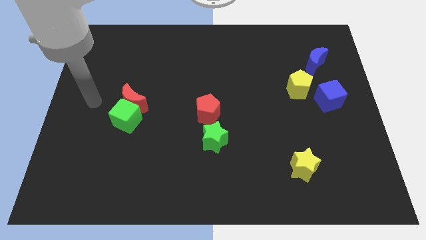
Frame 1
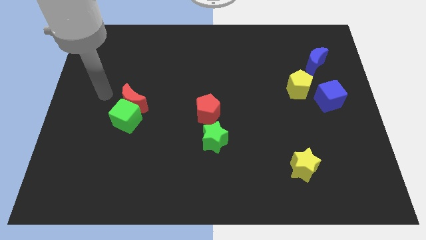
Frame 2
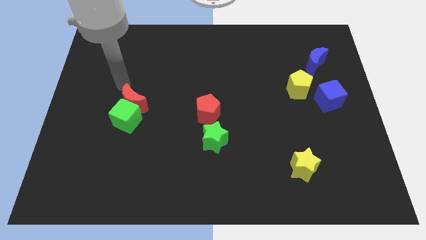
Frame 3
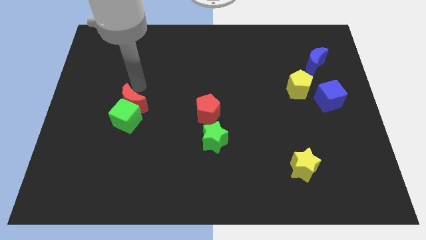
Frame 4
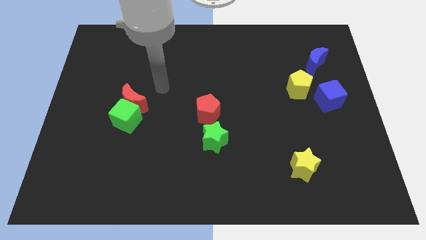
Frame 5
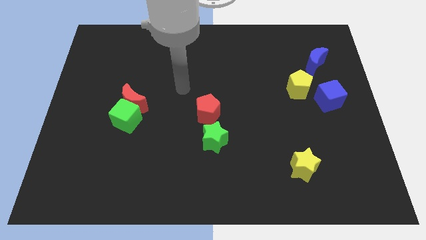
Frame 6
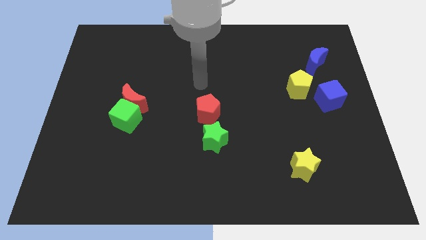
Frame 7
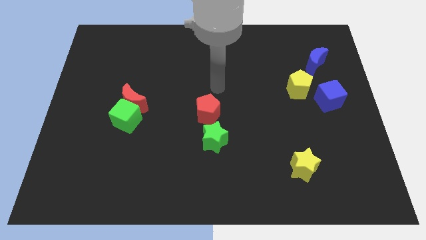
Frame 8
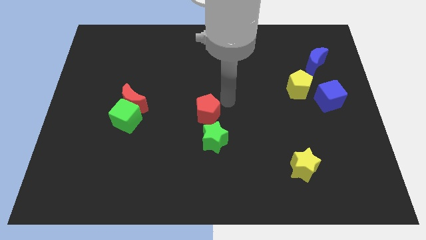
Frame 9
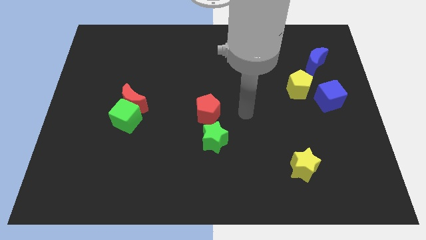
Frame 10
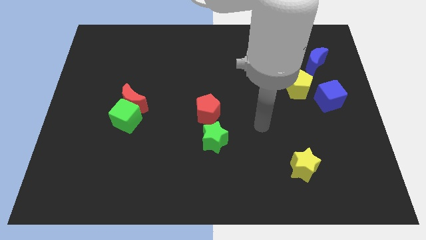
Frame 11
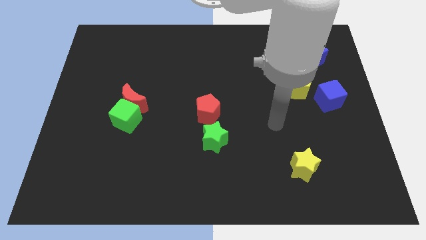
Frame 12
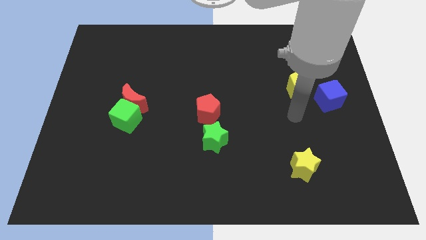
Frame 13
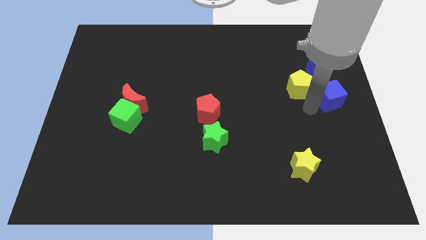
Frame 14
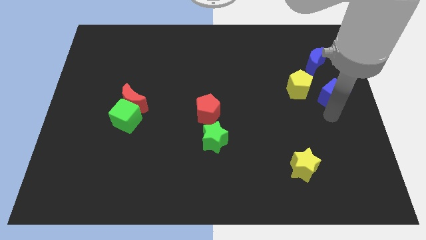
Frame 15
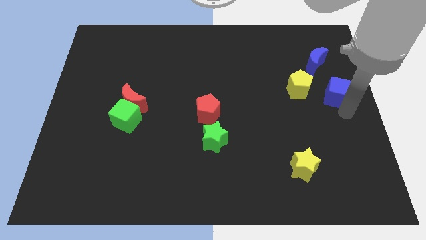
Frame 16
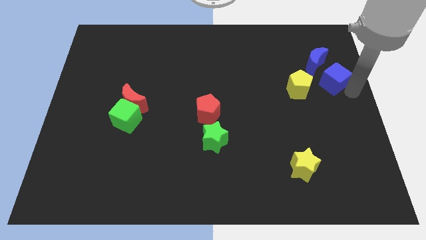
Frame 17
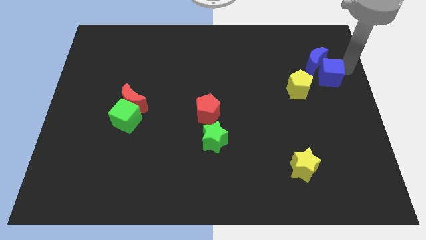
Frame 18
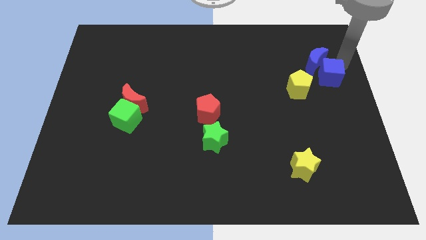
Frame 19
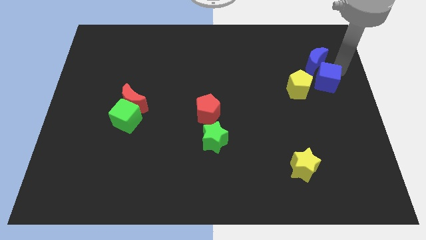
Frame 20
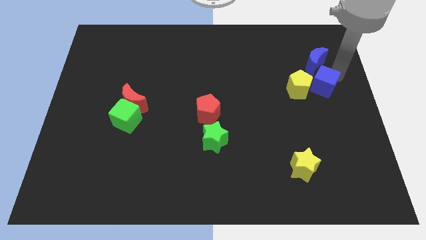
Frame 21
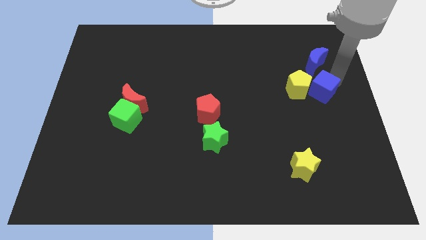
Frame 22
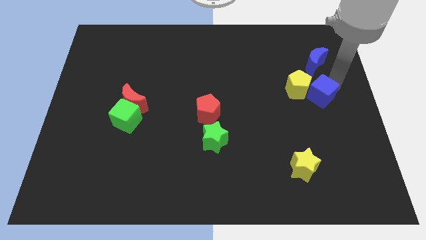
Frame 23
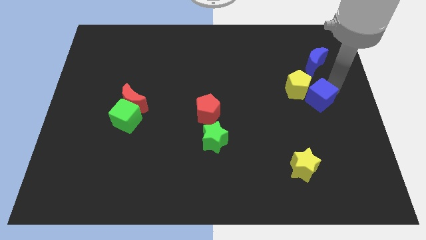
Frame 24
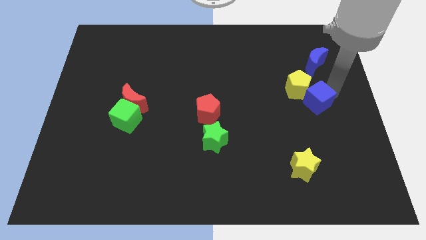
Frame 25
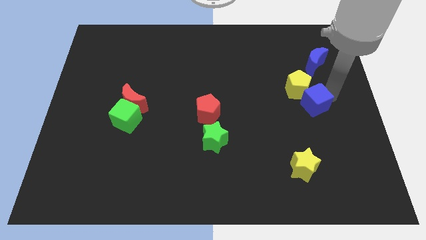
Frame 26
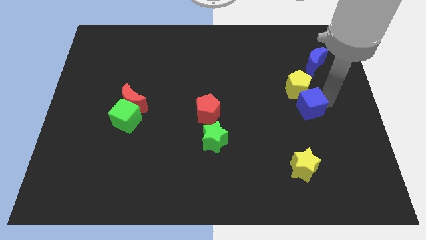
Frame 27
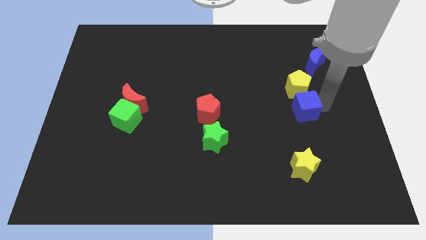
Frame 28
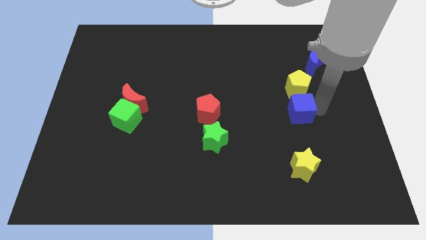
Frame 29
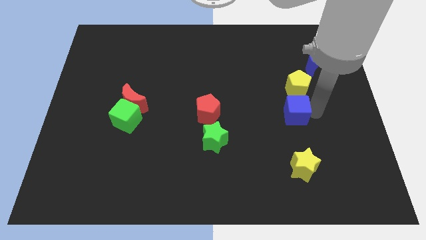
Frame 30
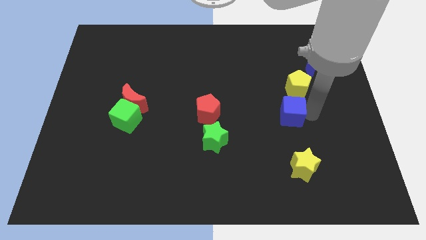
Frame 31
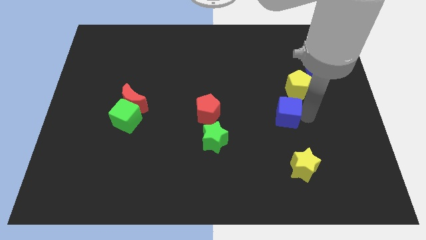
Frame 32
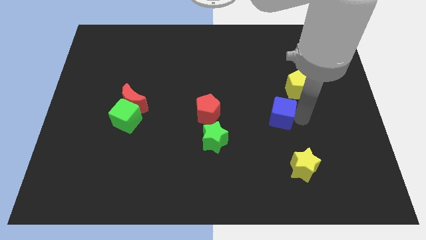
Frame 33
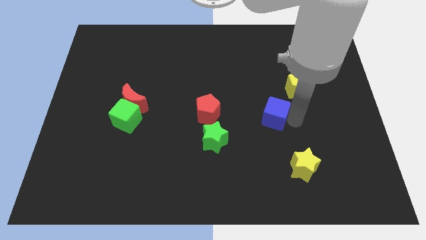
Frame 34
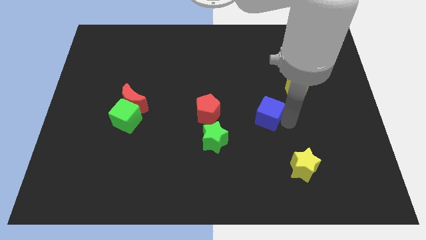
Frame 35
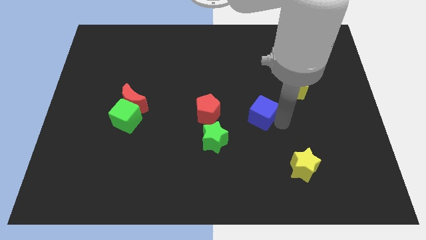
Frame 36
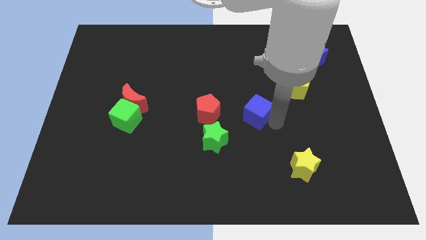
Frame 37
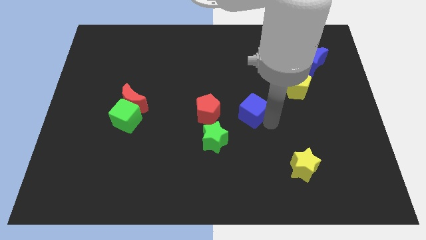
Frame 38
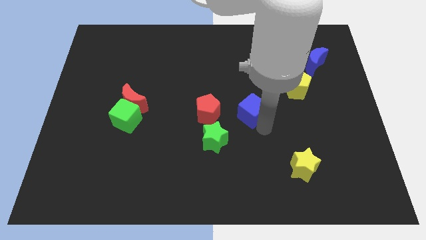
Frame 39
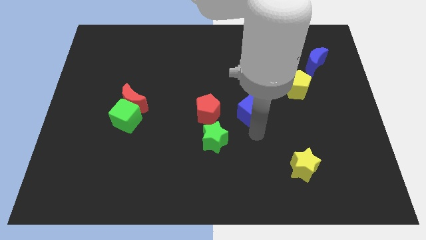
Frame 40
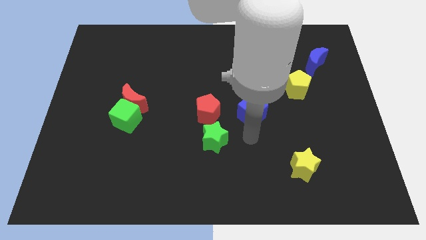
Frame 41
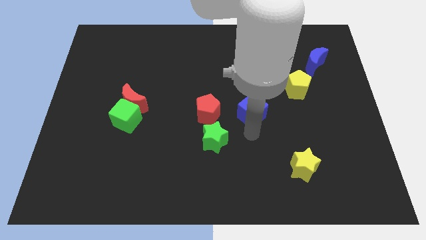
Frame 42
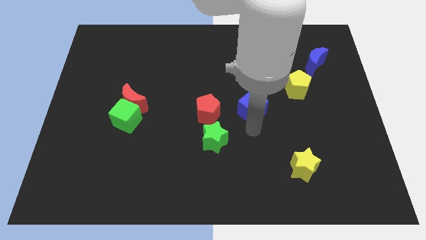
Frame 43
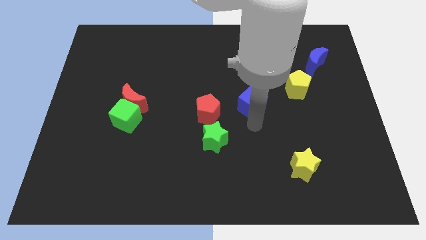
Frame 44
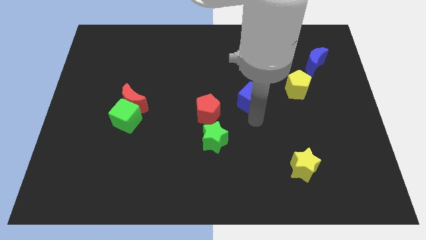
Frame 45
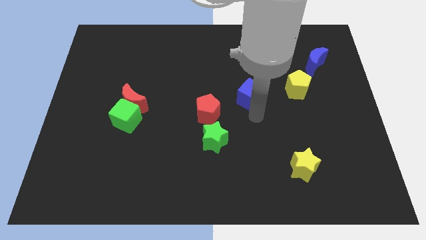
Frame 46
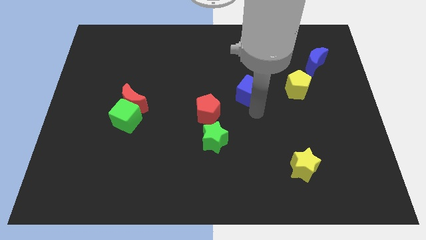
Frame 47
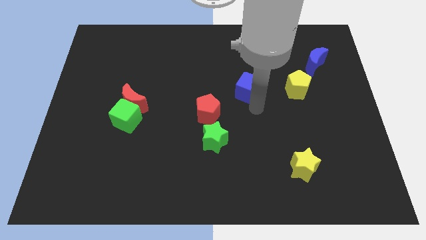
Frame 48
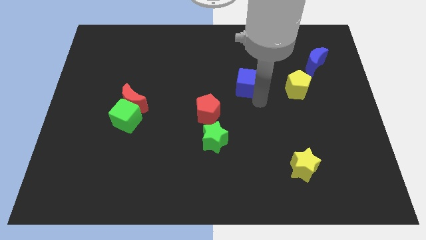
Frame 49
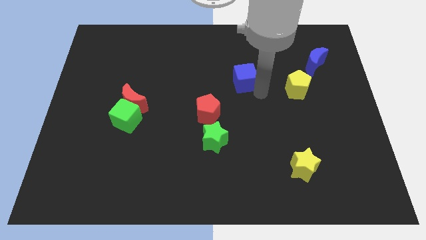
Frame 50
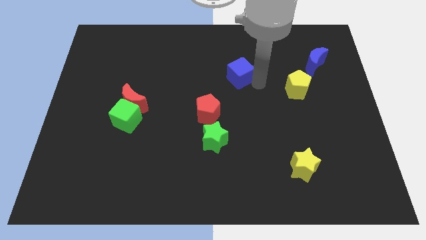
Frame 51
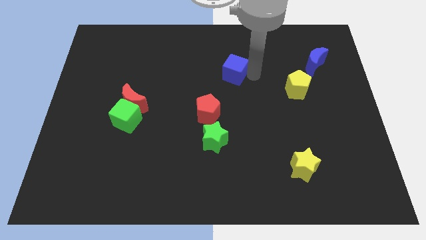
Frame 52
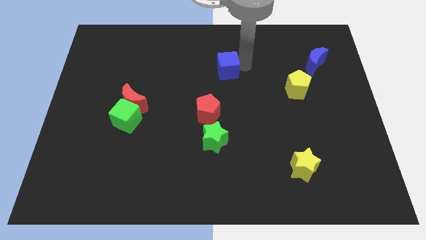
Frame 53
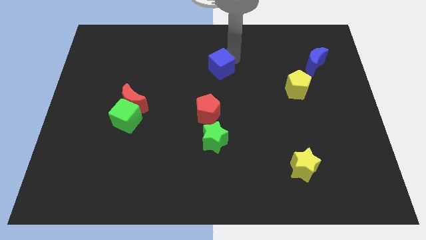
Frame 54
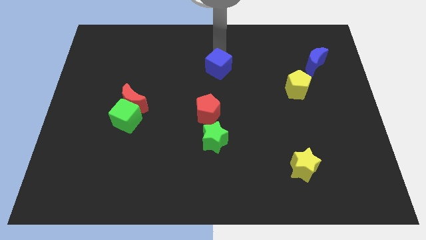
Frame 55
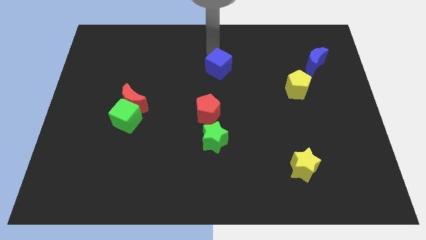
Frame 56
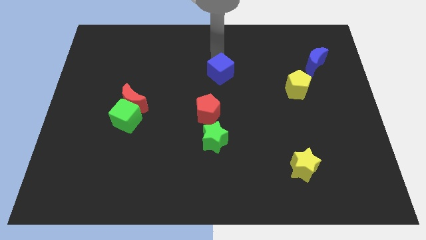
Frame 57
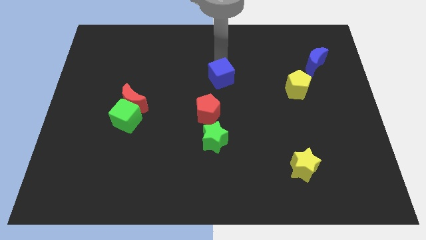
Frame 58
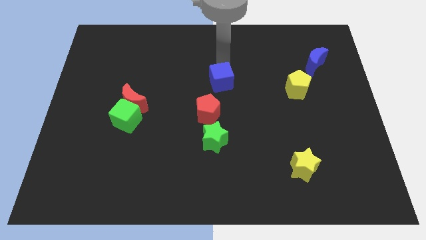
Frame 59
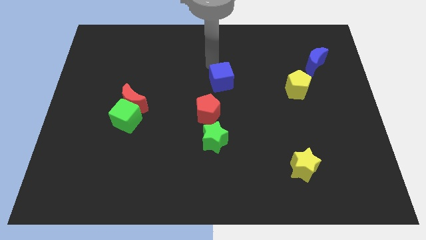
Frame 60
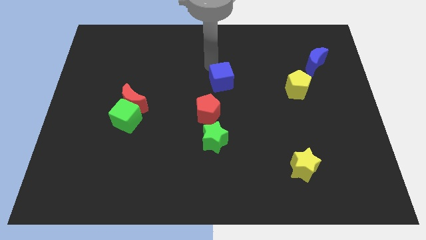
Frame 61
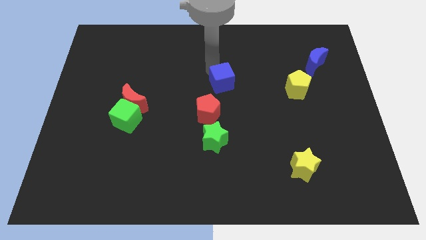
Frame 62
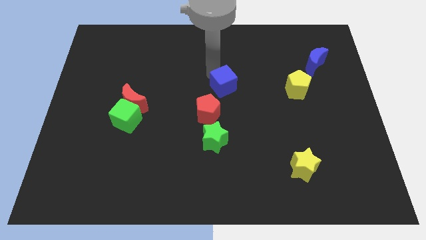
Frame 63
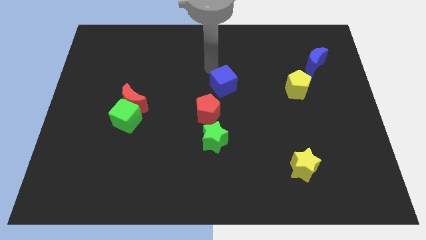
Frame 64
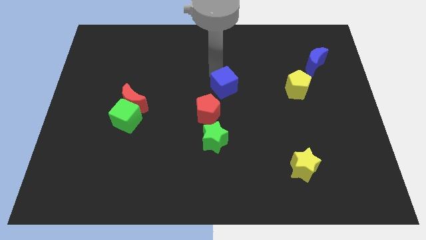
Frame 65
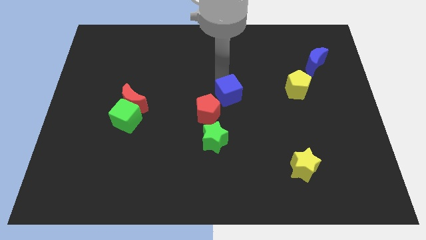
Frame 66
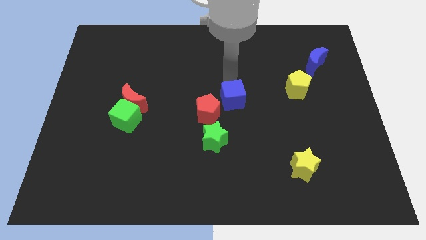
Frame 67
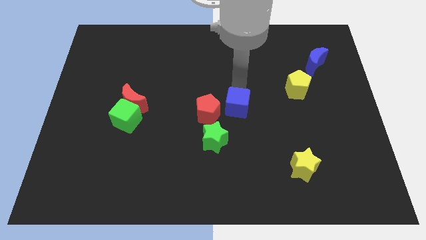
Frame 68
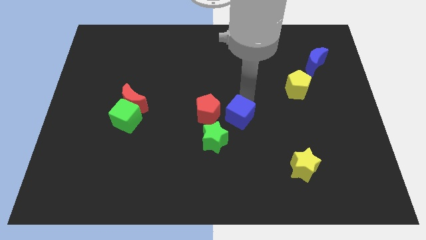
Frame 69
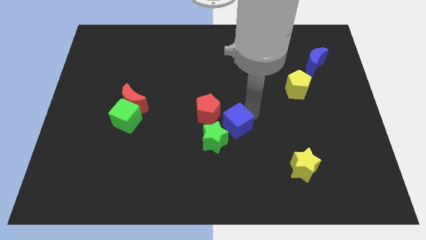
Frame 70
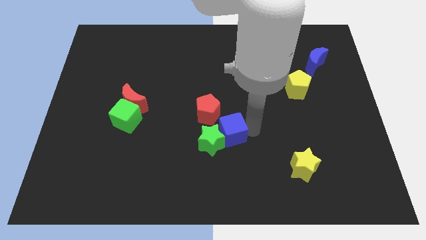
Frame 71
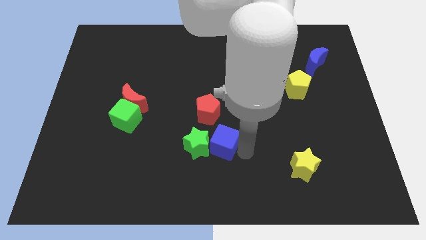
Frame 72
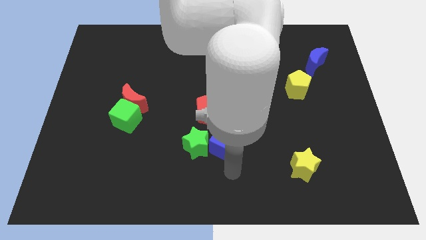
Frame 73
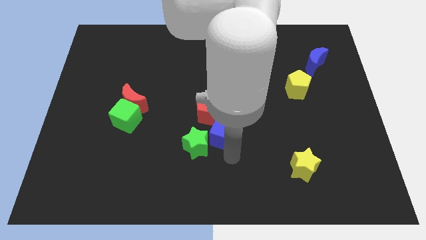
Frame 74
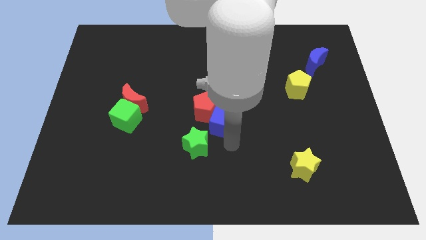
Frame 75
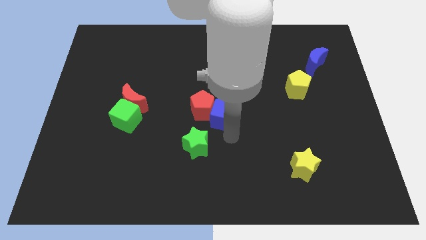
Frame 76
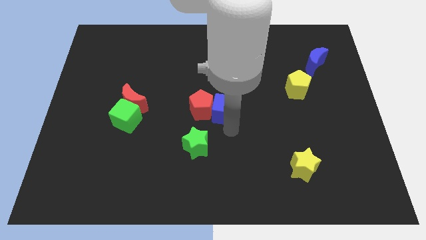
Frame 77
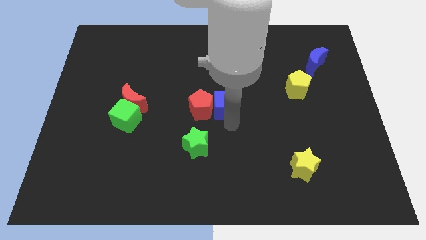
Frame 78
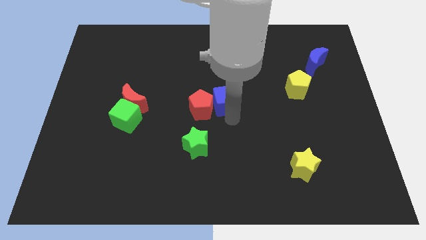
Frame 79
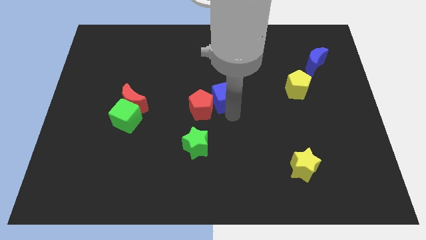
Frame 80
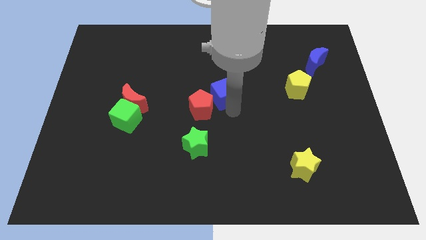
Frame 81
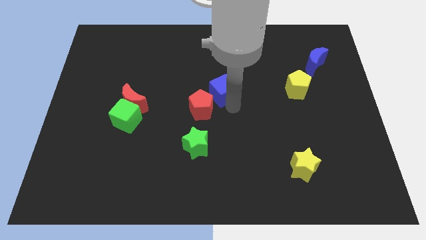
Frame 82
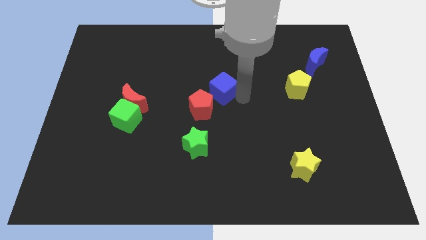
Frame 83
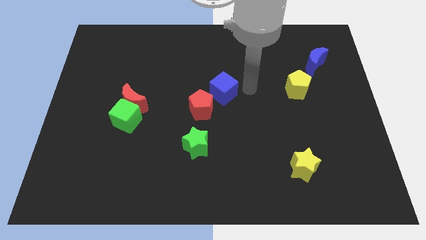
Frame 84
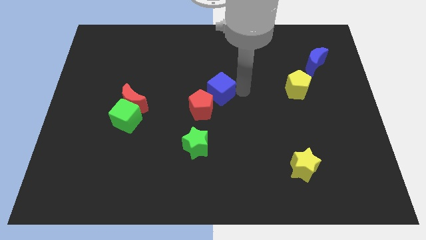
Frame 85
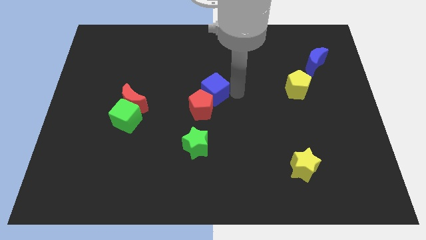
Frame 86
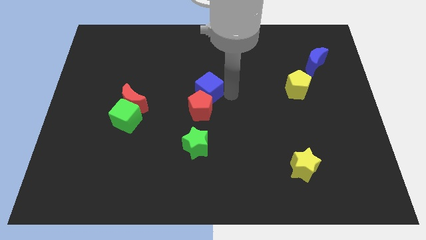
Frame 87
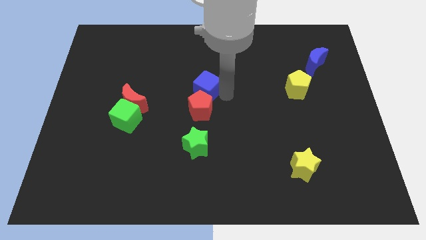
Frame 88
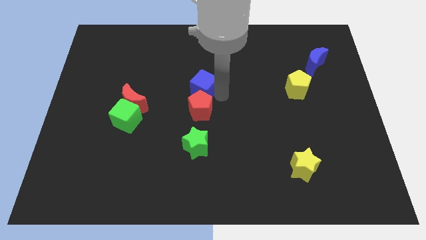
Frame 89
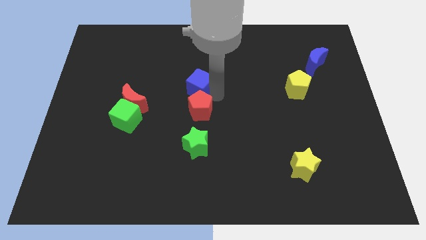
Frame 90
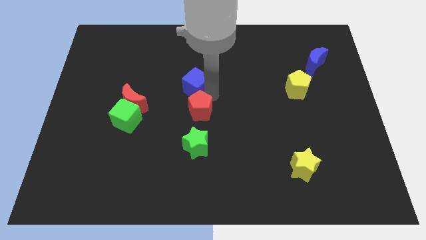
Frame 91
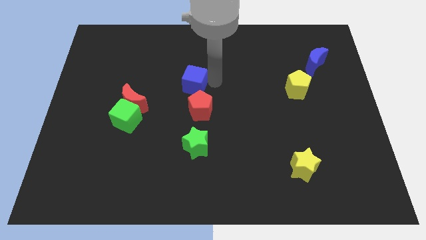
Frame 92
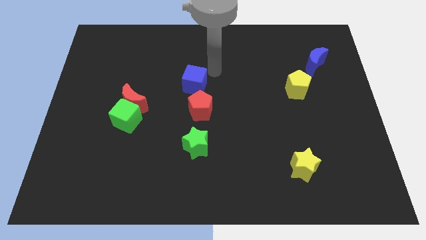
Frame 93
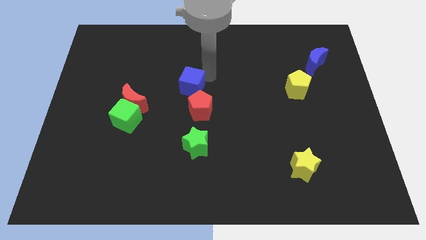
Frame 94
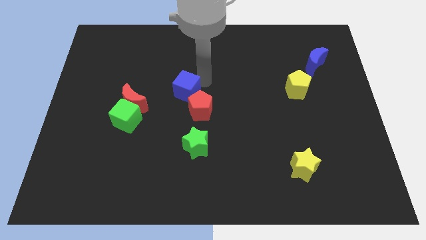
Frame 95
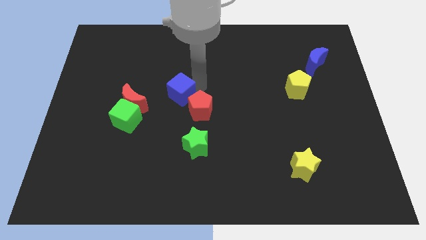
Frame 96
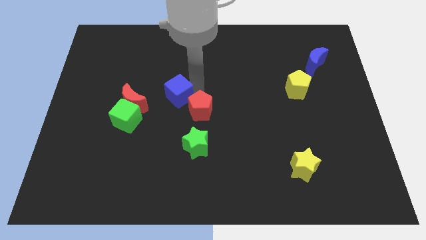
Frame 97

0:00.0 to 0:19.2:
slide the blue cube left of the red pentagon
